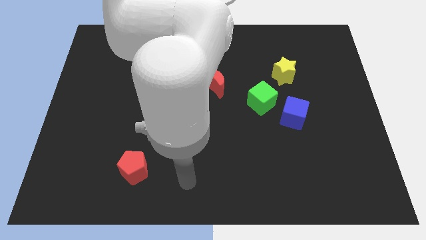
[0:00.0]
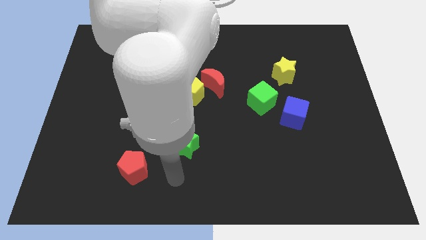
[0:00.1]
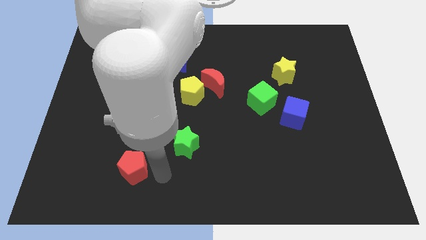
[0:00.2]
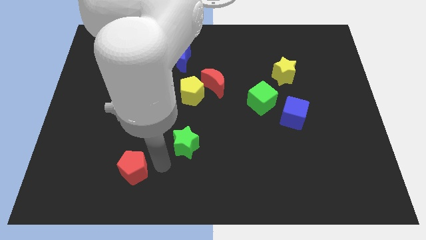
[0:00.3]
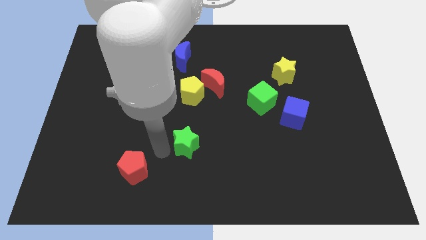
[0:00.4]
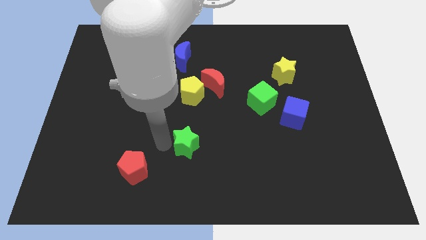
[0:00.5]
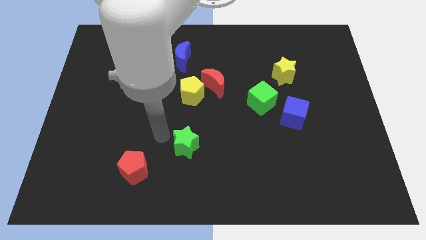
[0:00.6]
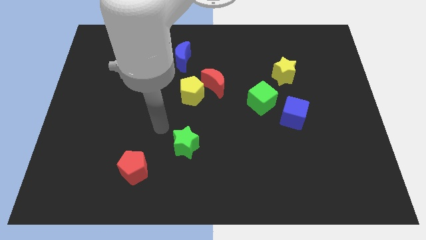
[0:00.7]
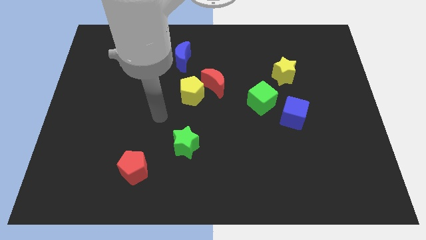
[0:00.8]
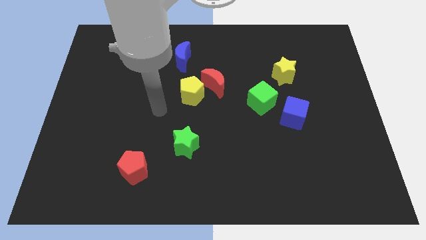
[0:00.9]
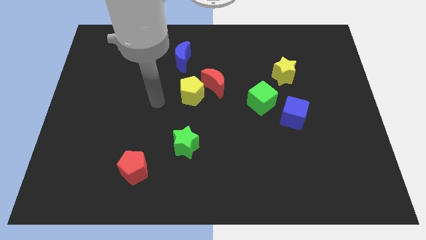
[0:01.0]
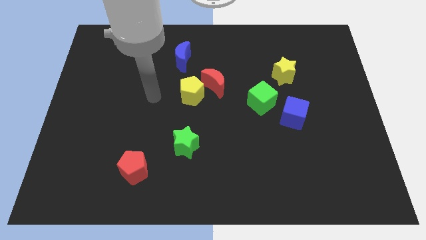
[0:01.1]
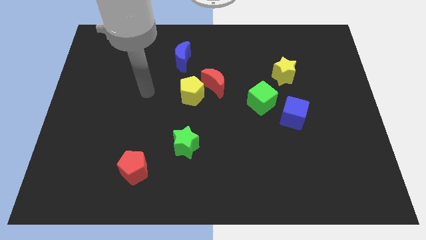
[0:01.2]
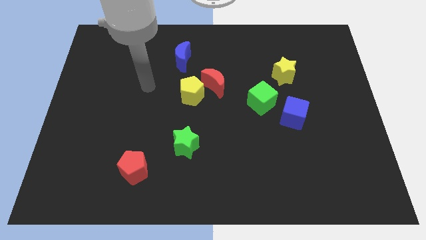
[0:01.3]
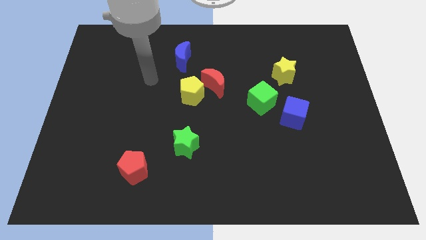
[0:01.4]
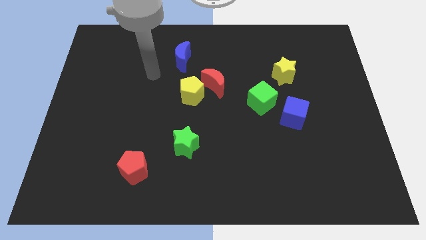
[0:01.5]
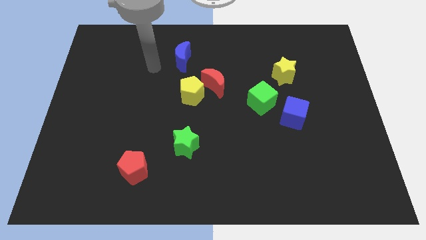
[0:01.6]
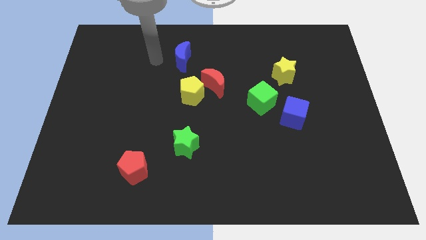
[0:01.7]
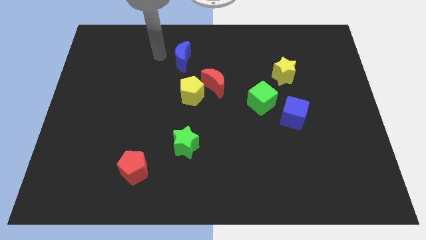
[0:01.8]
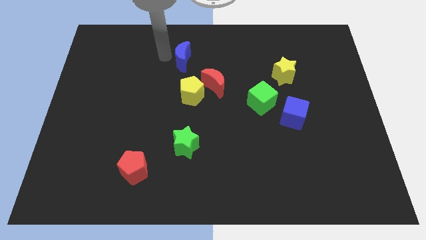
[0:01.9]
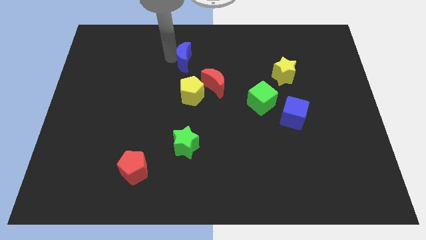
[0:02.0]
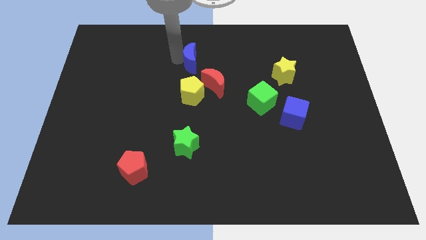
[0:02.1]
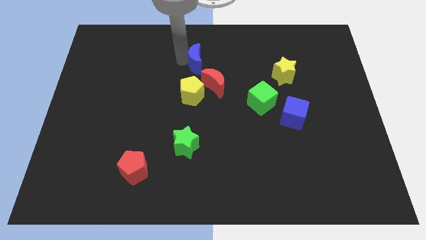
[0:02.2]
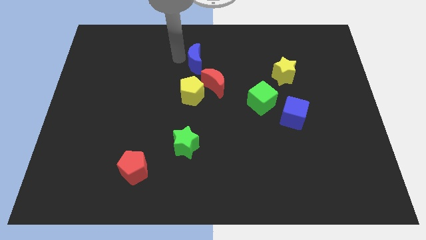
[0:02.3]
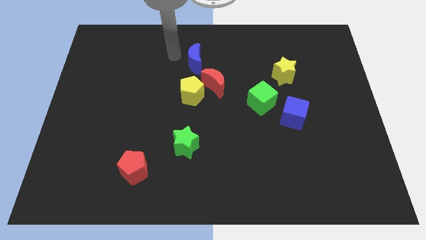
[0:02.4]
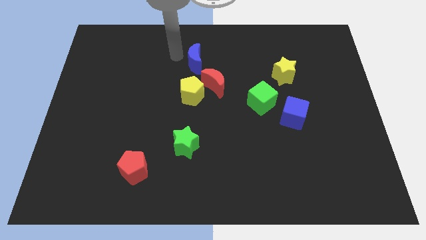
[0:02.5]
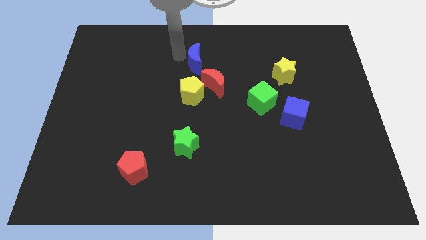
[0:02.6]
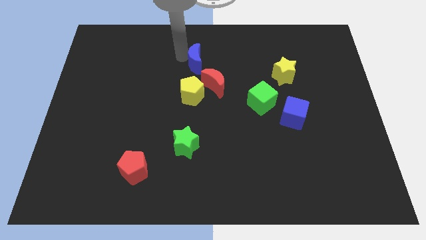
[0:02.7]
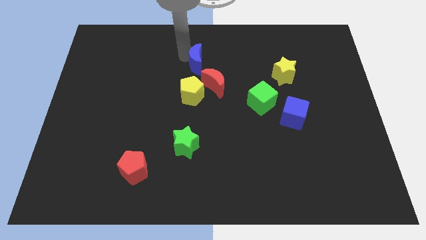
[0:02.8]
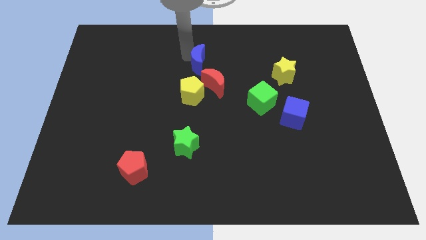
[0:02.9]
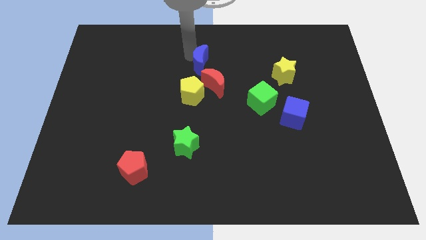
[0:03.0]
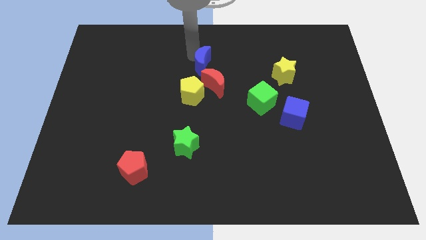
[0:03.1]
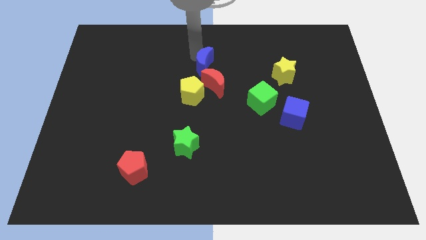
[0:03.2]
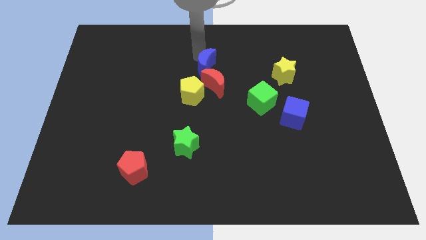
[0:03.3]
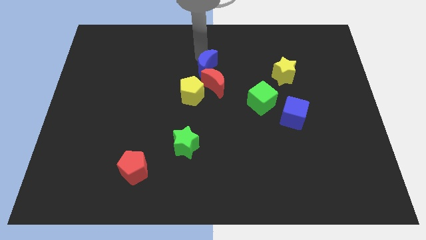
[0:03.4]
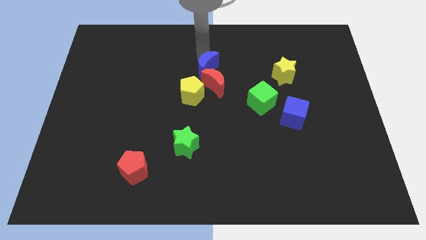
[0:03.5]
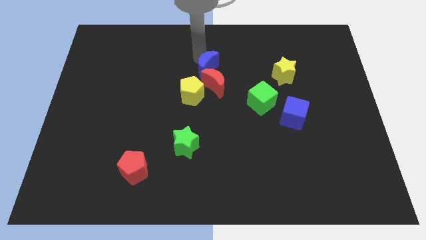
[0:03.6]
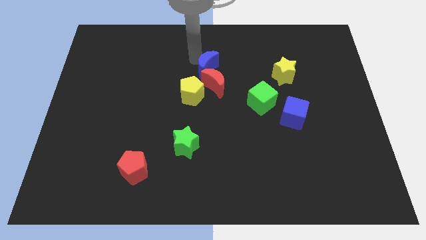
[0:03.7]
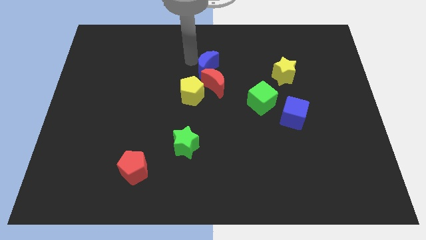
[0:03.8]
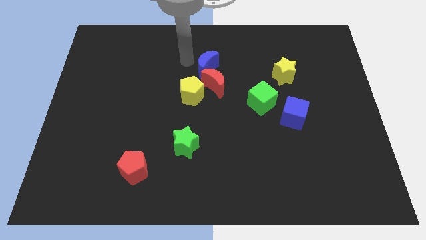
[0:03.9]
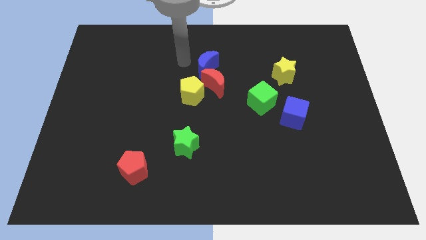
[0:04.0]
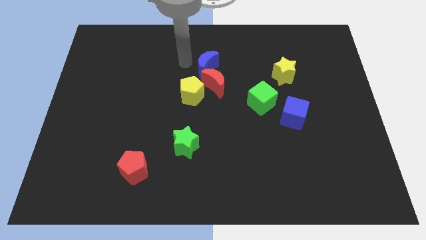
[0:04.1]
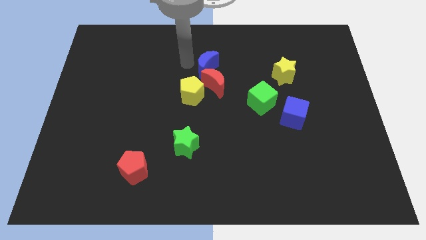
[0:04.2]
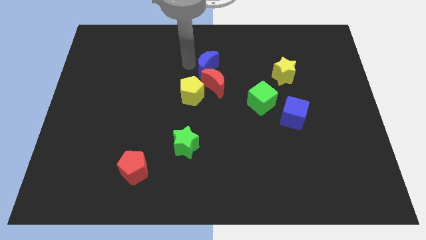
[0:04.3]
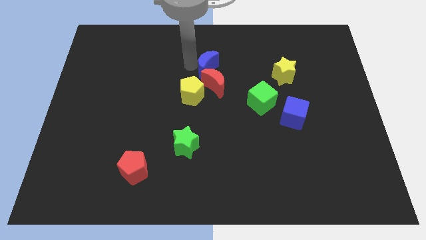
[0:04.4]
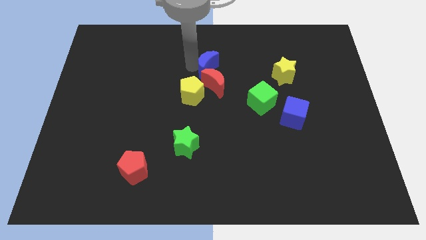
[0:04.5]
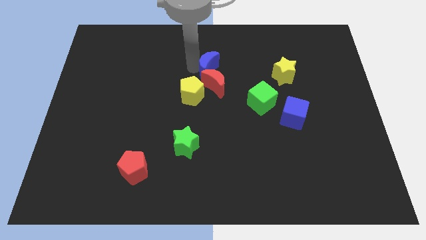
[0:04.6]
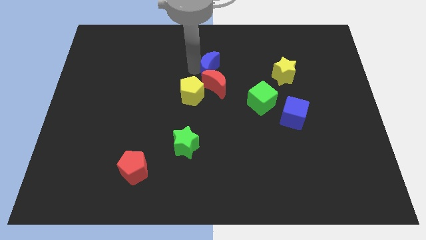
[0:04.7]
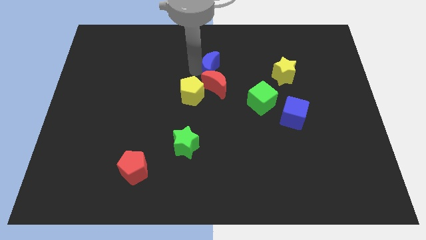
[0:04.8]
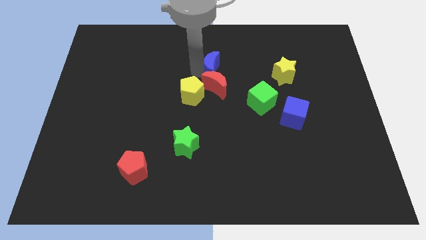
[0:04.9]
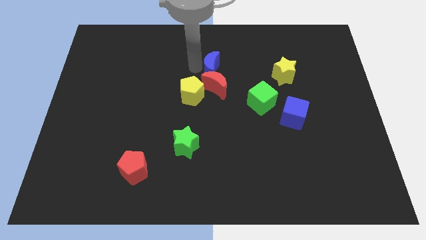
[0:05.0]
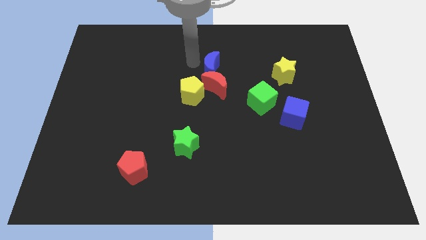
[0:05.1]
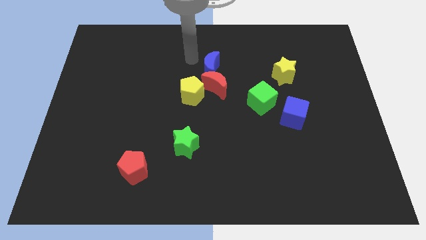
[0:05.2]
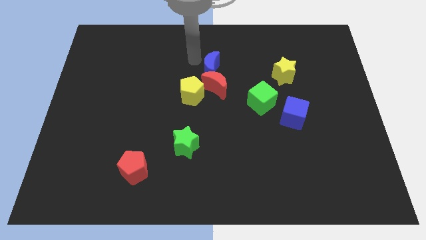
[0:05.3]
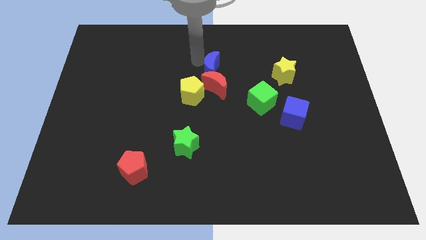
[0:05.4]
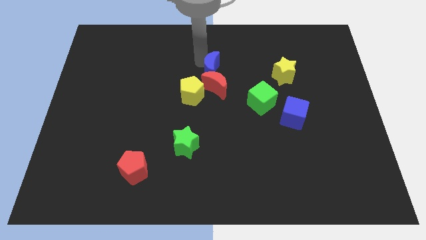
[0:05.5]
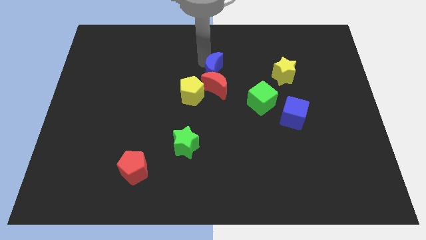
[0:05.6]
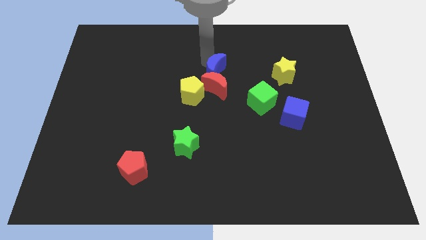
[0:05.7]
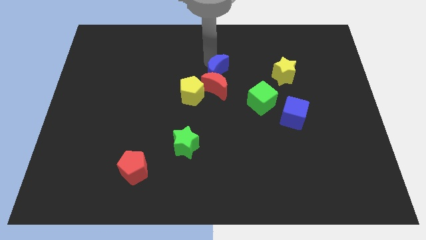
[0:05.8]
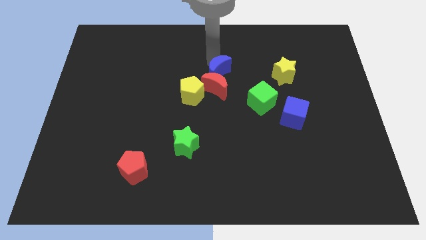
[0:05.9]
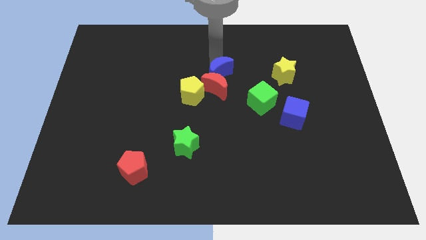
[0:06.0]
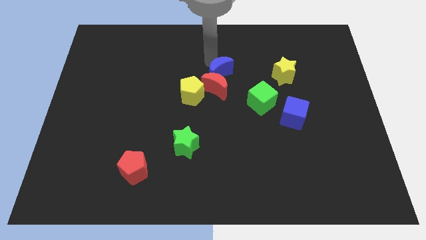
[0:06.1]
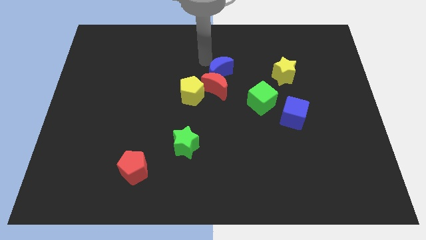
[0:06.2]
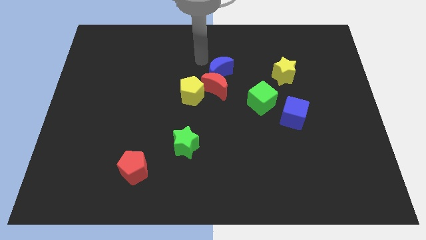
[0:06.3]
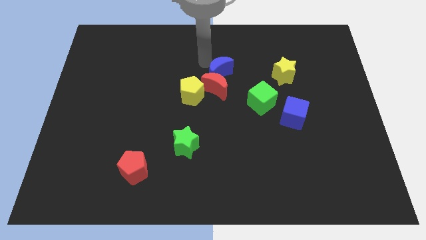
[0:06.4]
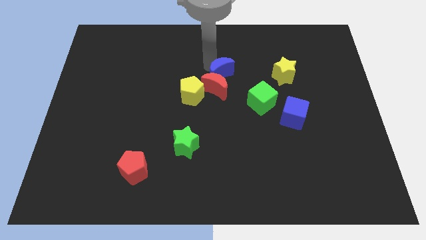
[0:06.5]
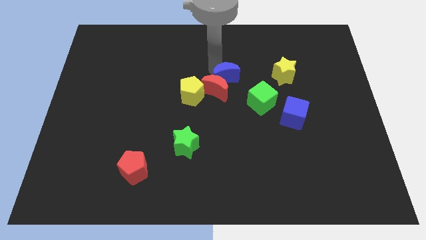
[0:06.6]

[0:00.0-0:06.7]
push the blue moon to the top left of the green cube

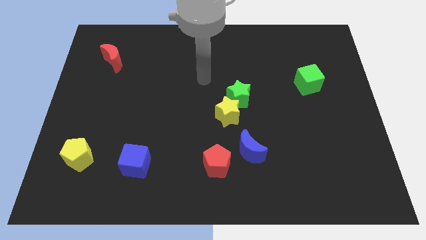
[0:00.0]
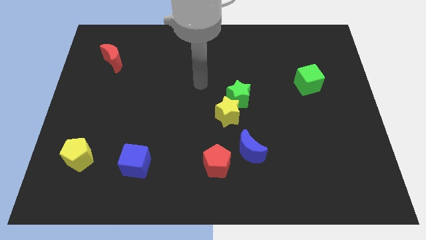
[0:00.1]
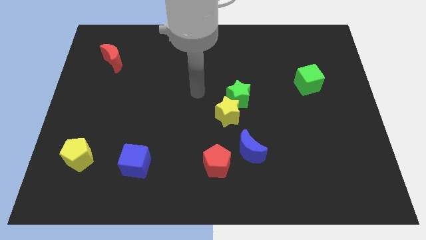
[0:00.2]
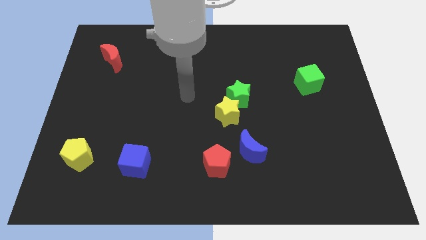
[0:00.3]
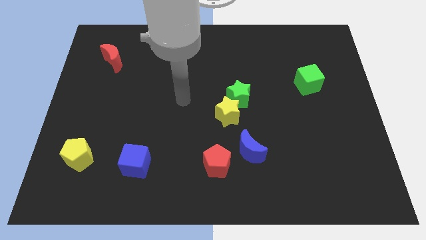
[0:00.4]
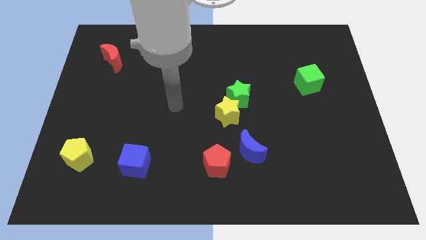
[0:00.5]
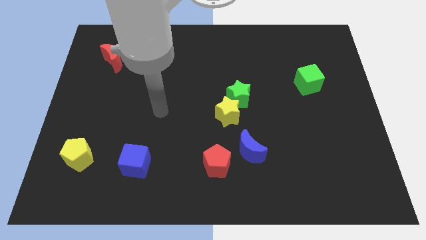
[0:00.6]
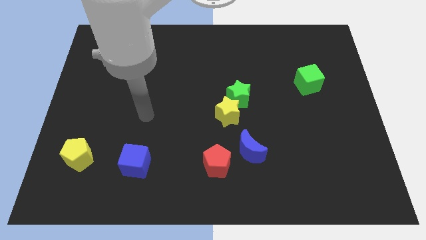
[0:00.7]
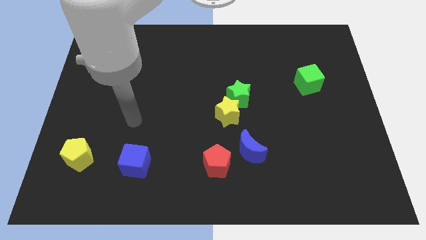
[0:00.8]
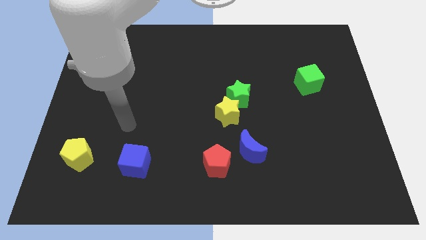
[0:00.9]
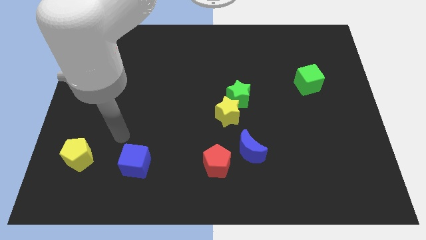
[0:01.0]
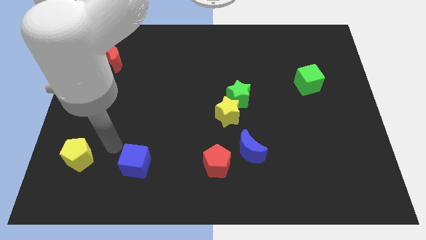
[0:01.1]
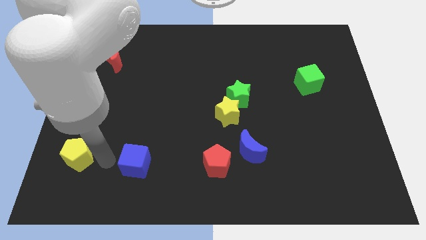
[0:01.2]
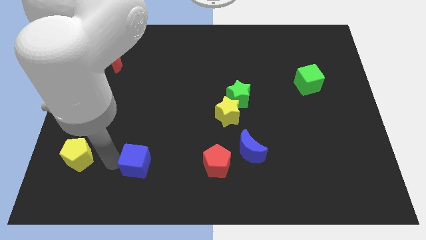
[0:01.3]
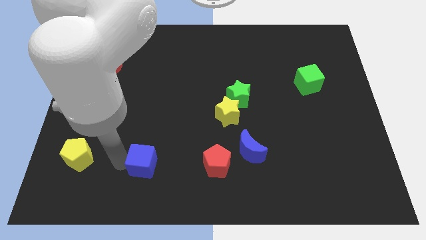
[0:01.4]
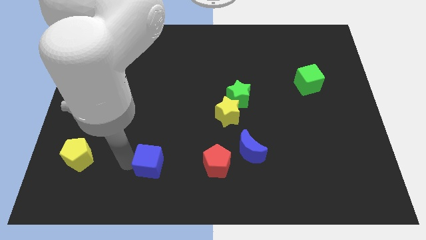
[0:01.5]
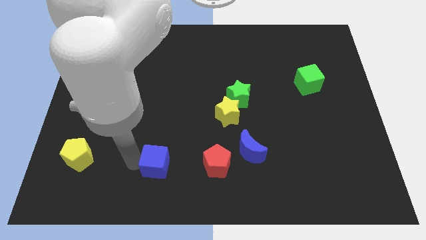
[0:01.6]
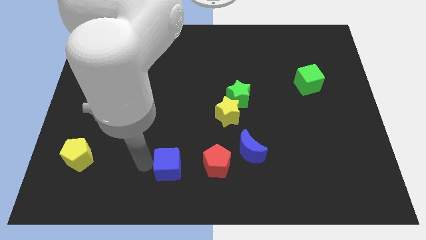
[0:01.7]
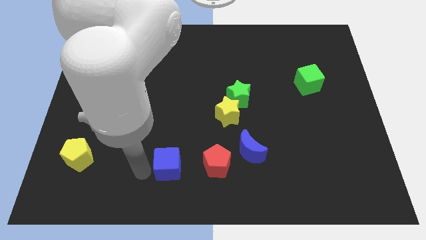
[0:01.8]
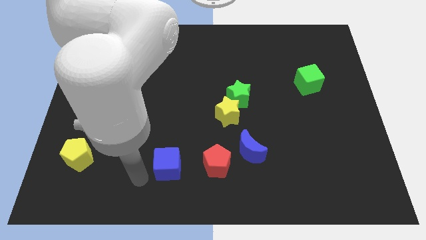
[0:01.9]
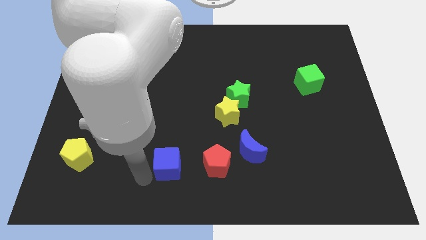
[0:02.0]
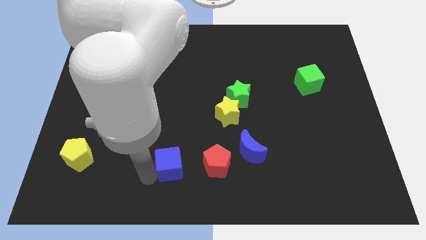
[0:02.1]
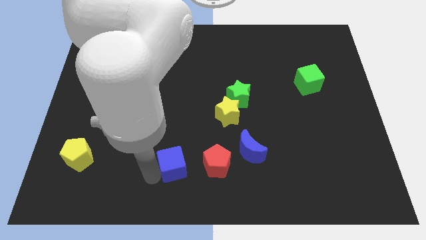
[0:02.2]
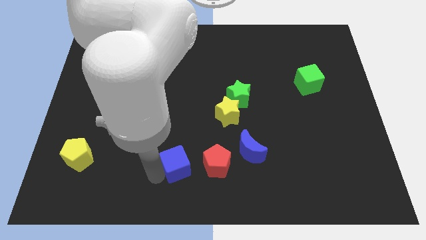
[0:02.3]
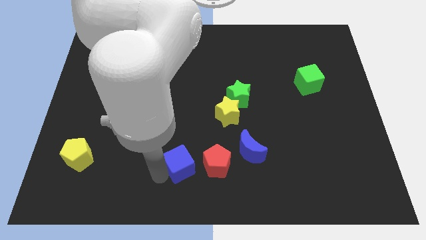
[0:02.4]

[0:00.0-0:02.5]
slide the blue cube left of the blue moon
